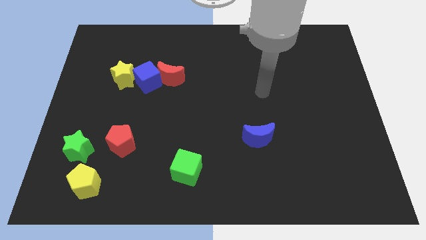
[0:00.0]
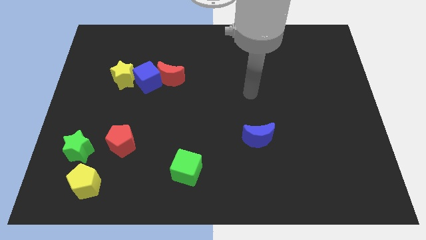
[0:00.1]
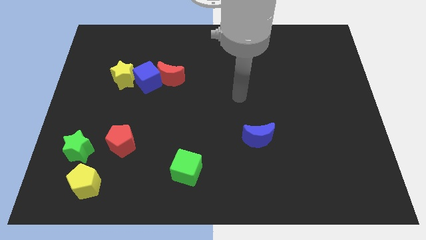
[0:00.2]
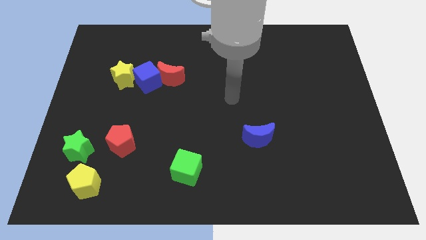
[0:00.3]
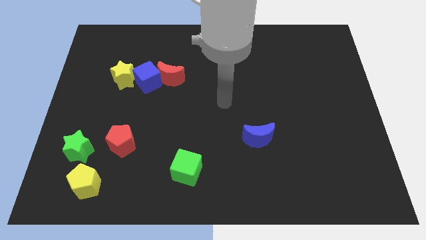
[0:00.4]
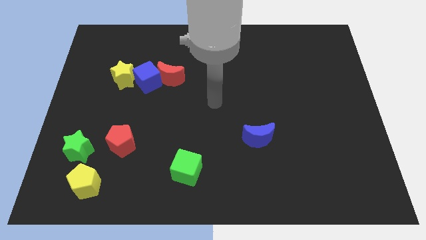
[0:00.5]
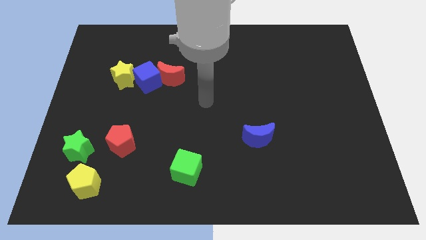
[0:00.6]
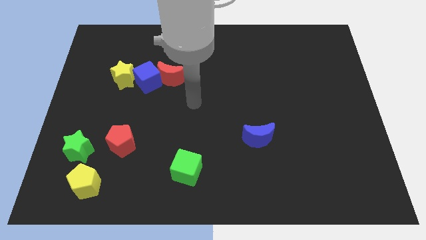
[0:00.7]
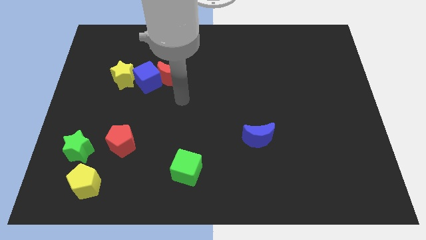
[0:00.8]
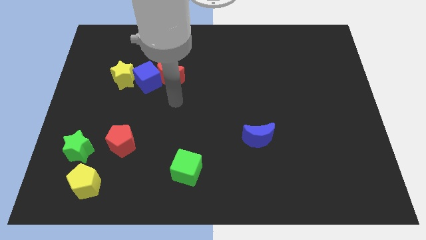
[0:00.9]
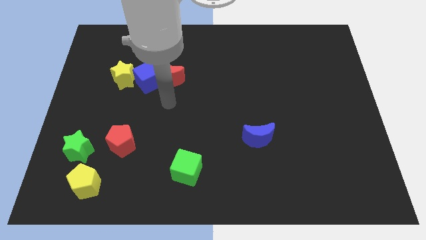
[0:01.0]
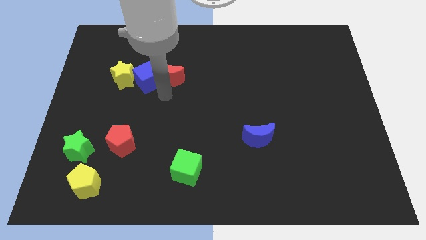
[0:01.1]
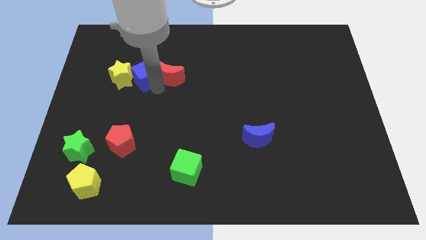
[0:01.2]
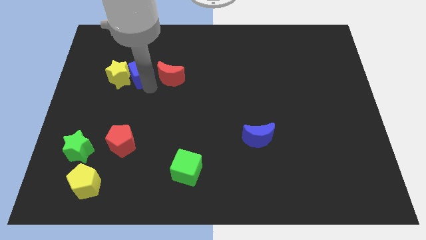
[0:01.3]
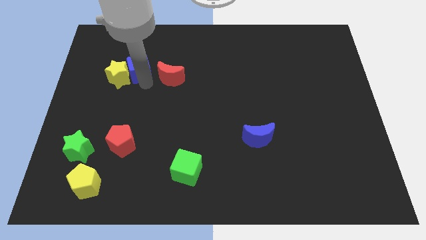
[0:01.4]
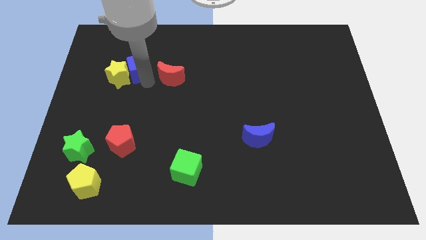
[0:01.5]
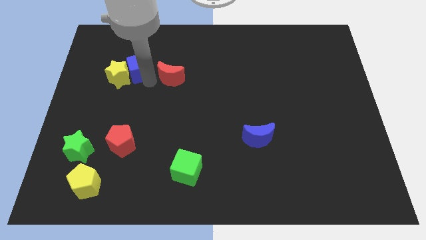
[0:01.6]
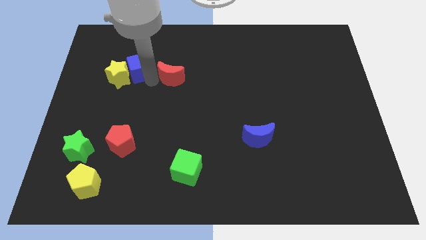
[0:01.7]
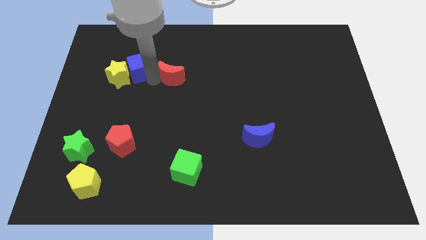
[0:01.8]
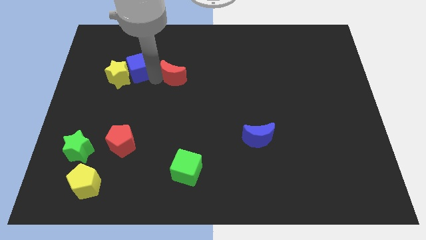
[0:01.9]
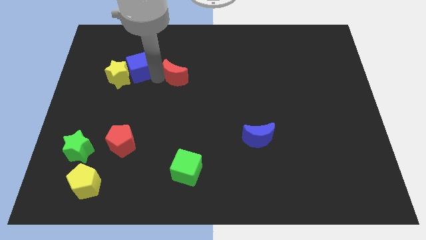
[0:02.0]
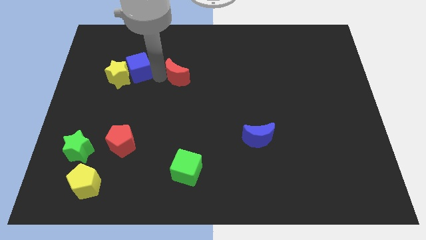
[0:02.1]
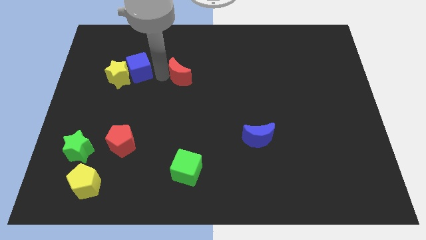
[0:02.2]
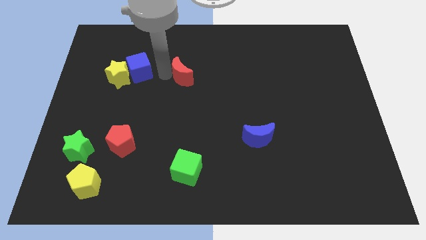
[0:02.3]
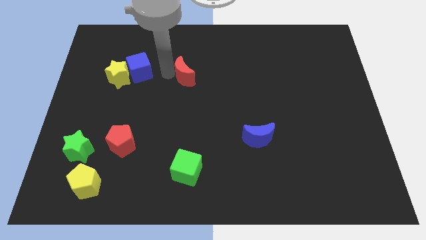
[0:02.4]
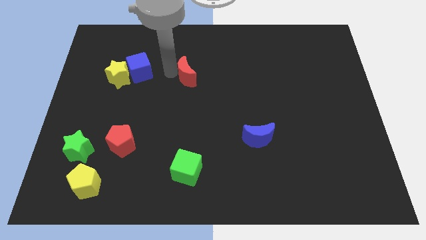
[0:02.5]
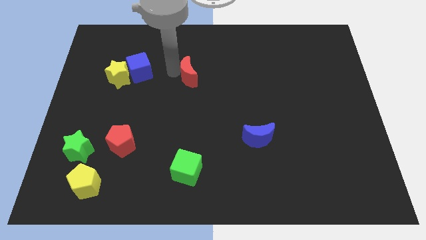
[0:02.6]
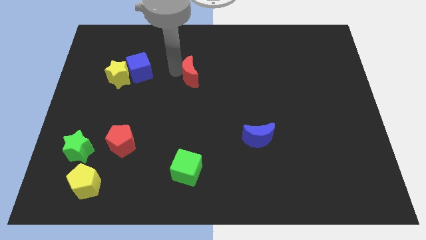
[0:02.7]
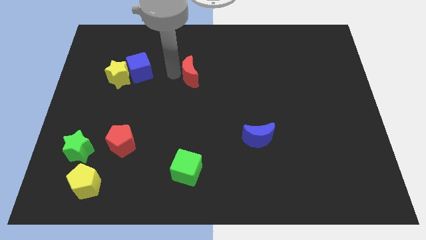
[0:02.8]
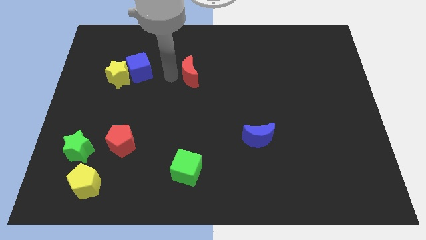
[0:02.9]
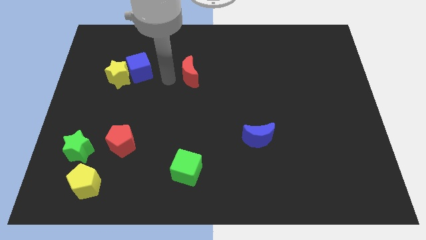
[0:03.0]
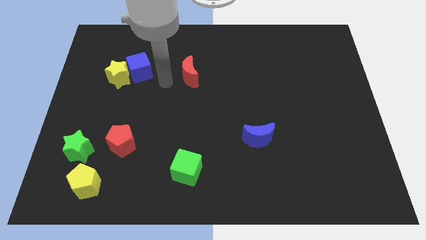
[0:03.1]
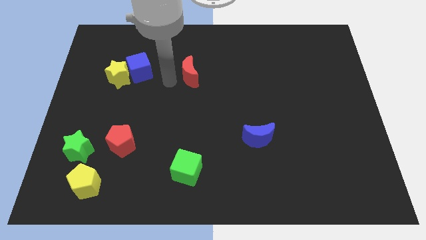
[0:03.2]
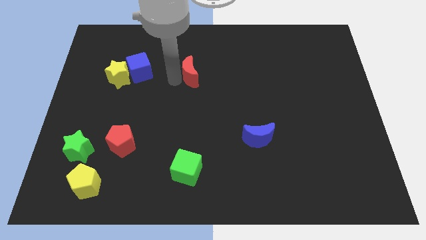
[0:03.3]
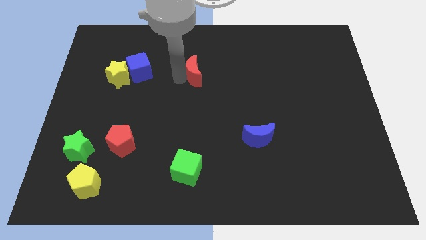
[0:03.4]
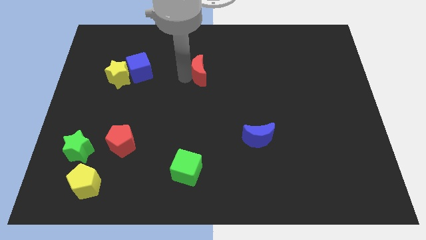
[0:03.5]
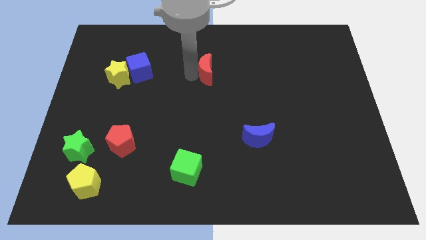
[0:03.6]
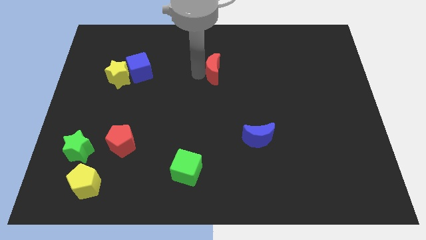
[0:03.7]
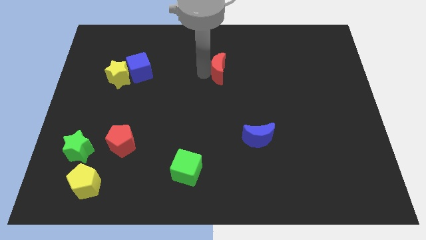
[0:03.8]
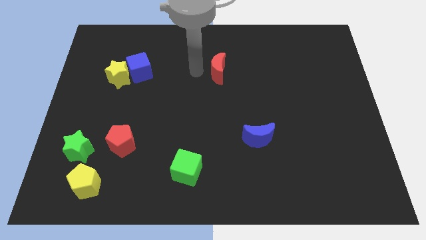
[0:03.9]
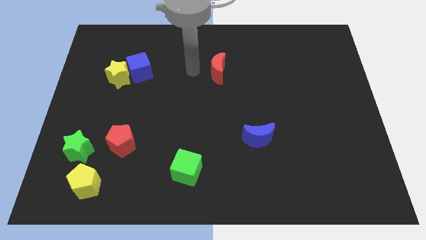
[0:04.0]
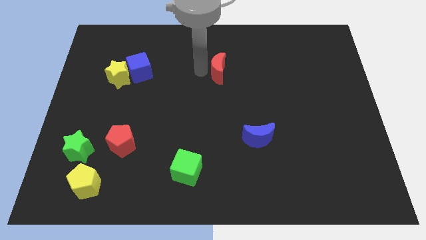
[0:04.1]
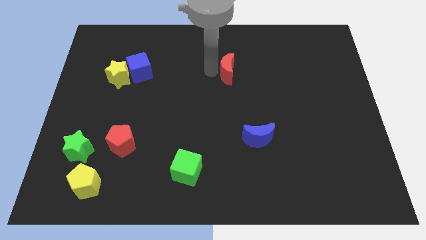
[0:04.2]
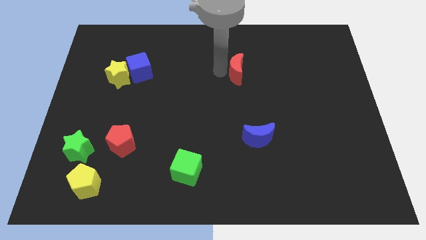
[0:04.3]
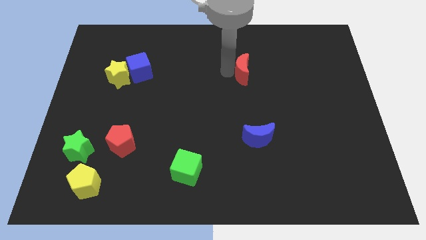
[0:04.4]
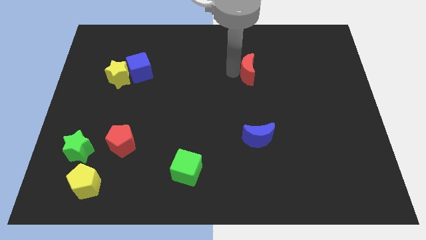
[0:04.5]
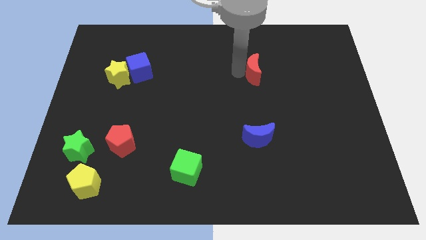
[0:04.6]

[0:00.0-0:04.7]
slide the red moon right

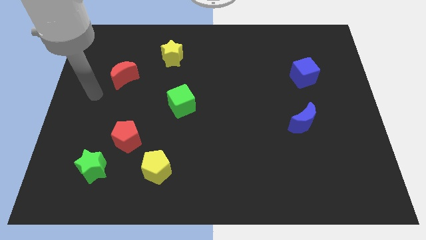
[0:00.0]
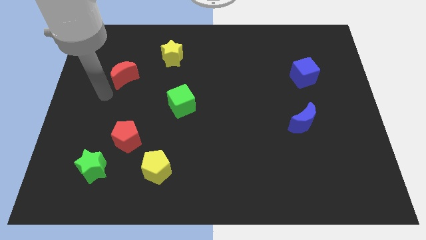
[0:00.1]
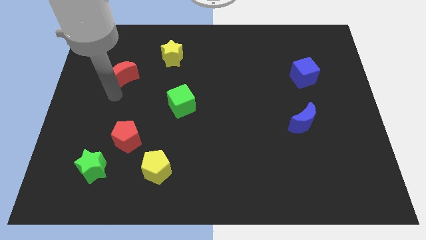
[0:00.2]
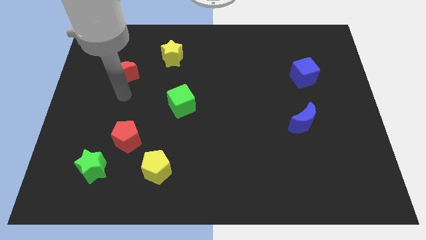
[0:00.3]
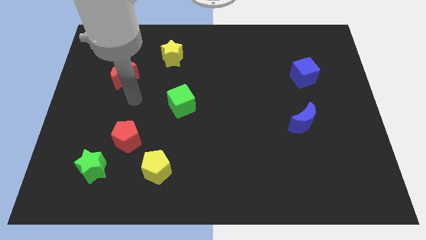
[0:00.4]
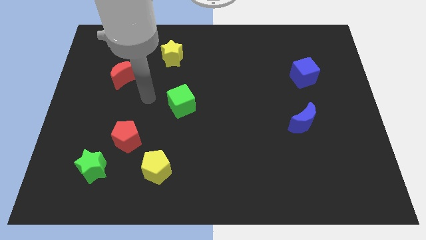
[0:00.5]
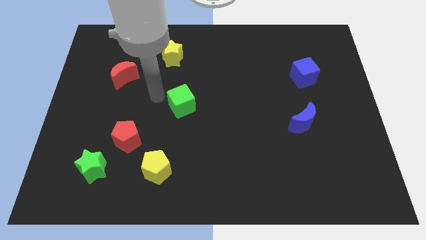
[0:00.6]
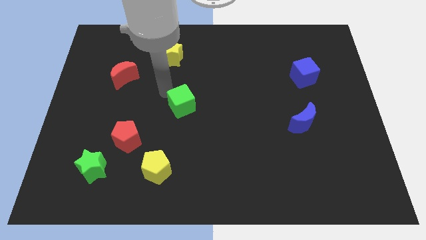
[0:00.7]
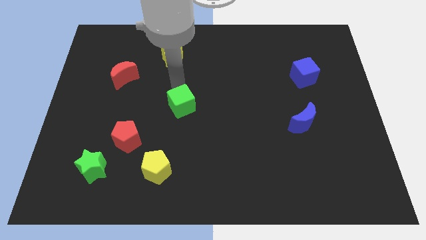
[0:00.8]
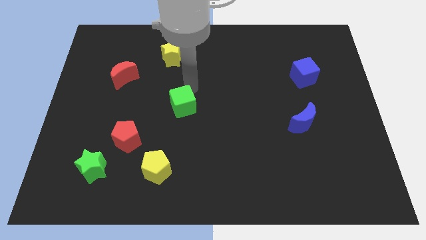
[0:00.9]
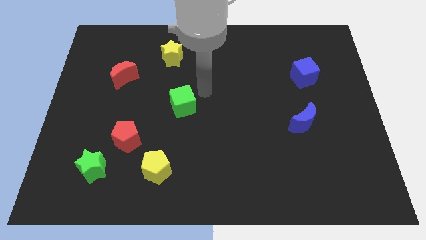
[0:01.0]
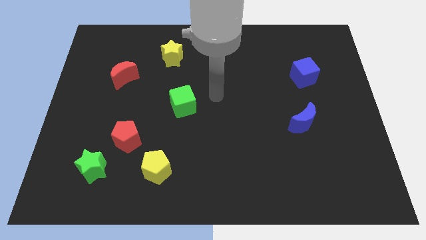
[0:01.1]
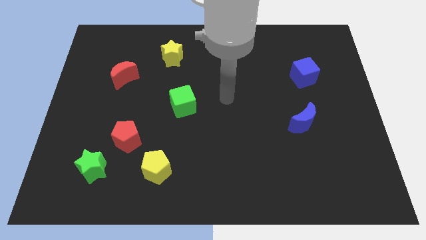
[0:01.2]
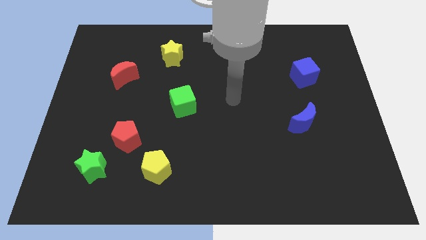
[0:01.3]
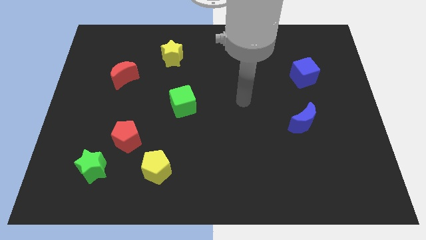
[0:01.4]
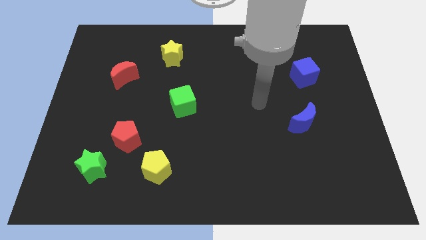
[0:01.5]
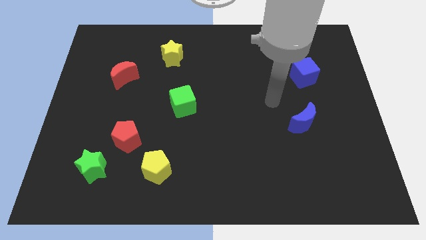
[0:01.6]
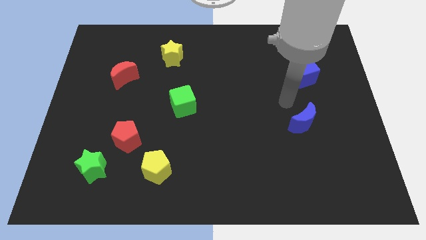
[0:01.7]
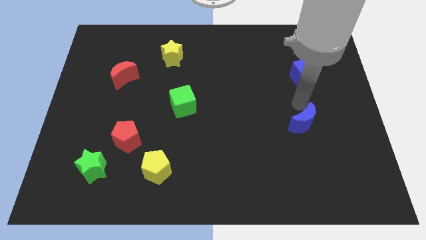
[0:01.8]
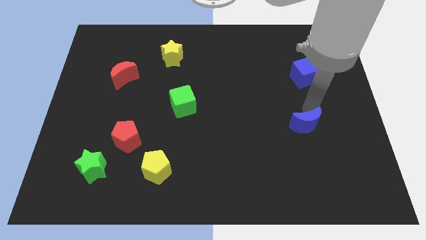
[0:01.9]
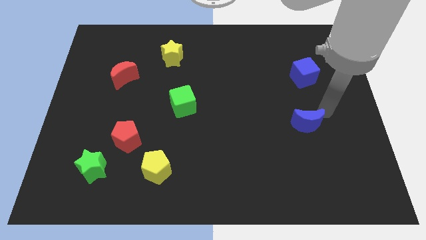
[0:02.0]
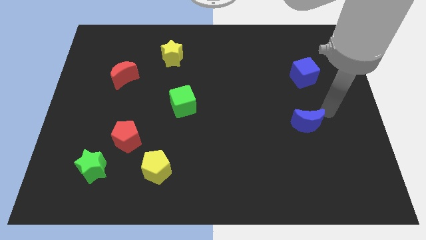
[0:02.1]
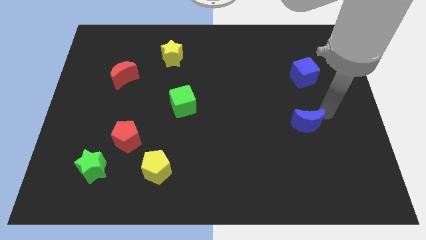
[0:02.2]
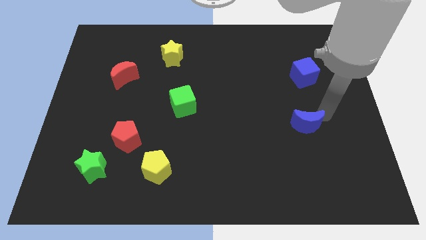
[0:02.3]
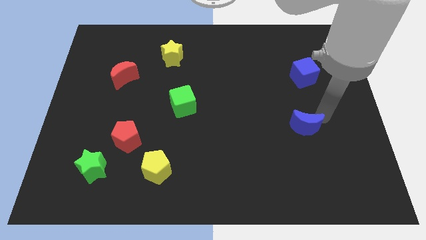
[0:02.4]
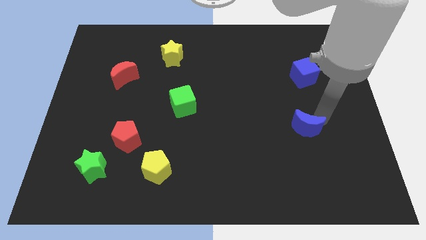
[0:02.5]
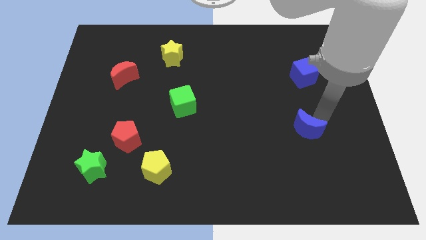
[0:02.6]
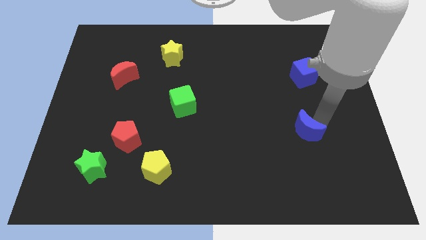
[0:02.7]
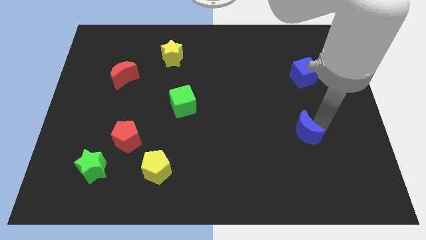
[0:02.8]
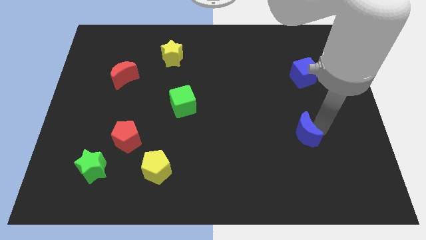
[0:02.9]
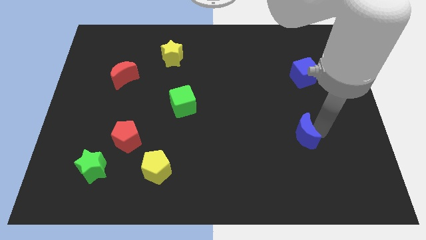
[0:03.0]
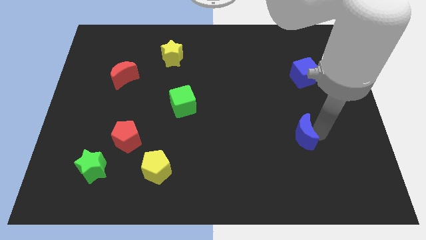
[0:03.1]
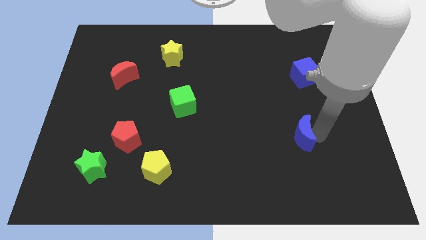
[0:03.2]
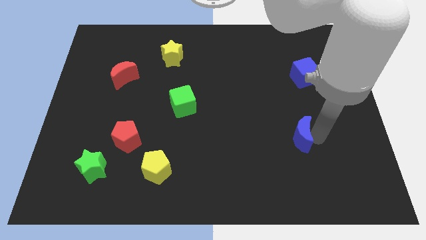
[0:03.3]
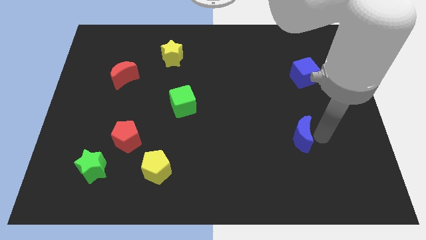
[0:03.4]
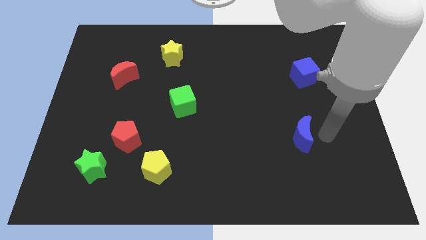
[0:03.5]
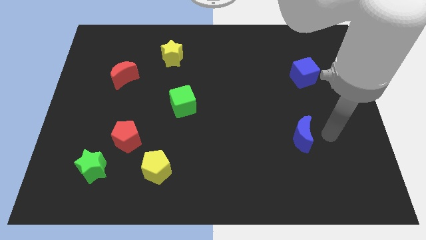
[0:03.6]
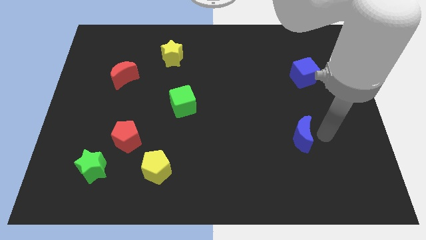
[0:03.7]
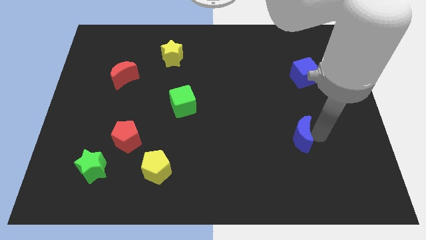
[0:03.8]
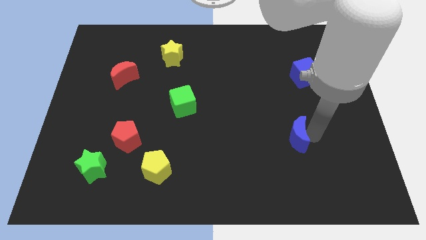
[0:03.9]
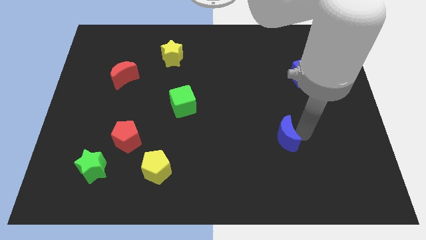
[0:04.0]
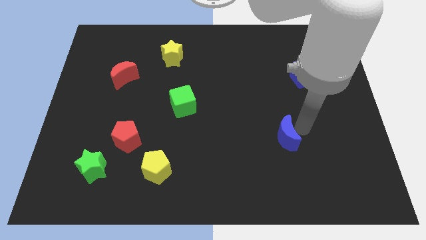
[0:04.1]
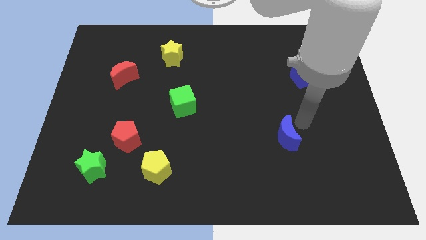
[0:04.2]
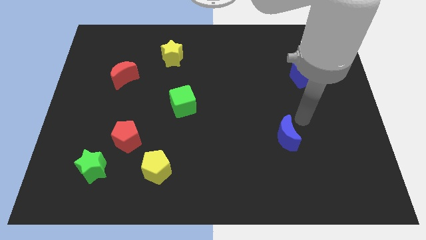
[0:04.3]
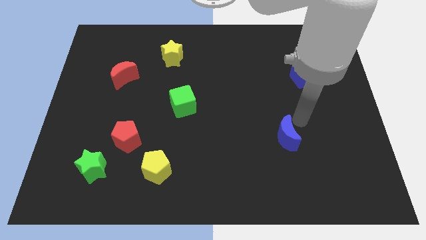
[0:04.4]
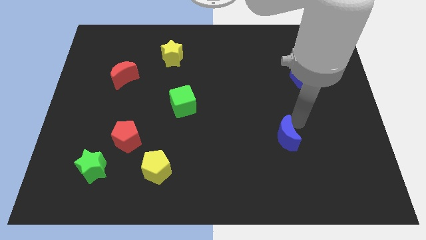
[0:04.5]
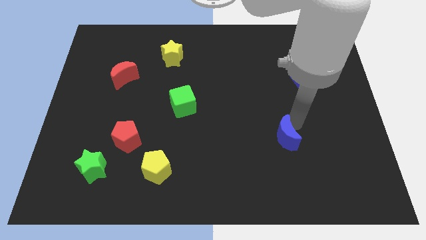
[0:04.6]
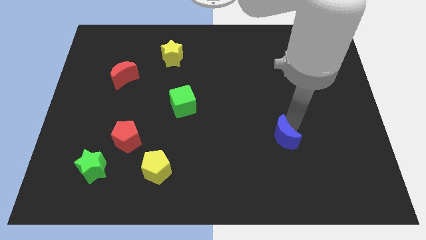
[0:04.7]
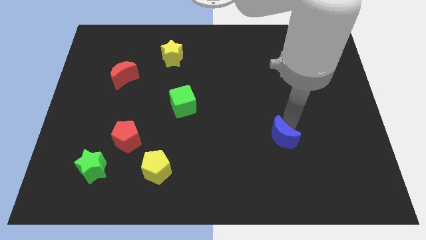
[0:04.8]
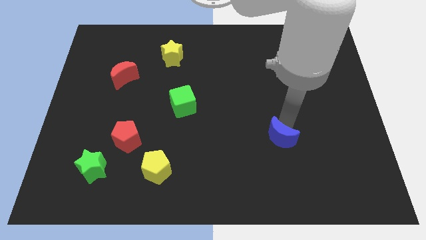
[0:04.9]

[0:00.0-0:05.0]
slightly slide the blue moon downwards and then to the left
